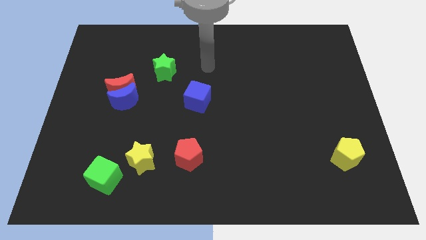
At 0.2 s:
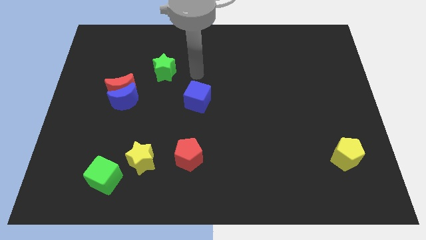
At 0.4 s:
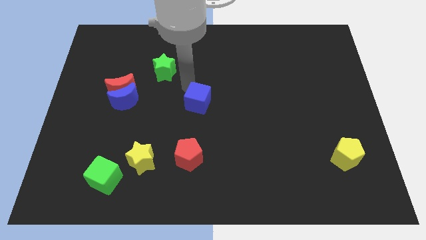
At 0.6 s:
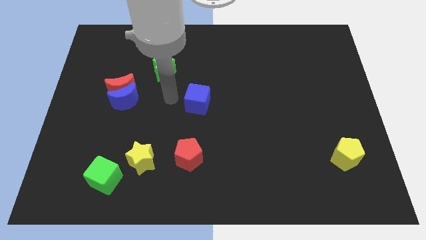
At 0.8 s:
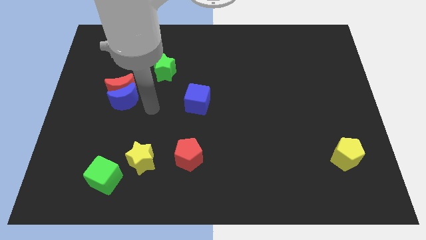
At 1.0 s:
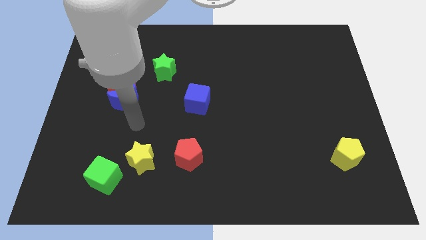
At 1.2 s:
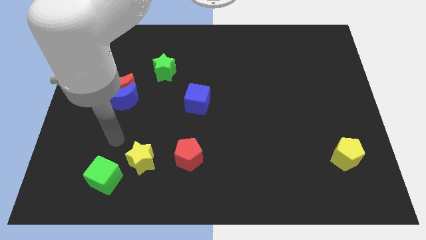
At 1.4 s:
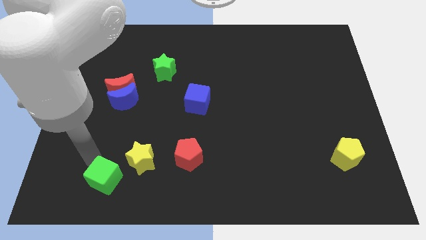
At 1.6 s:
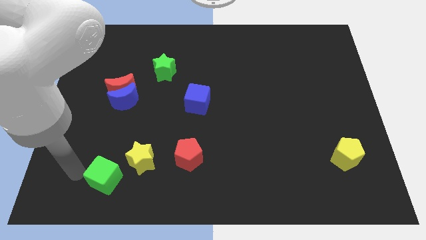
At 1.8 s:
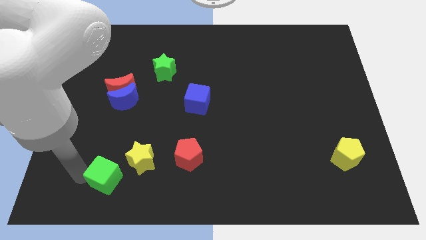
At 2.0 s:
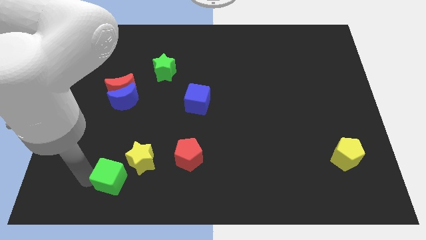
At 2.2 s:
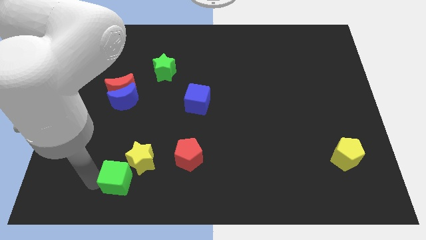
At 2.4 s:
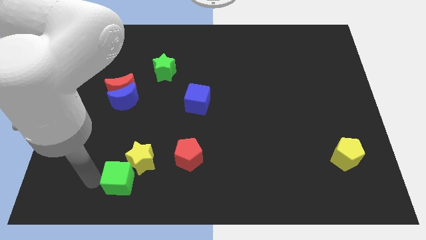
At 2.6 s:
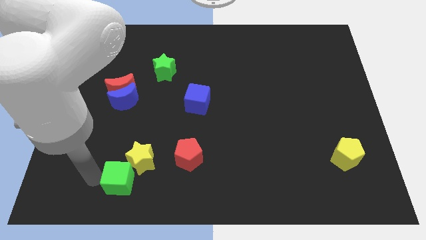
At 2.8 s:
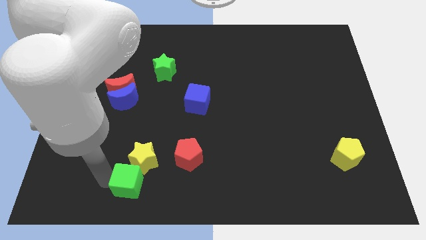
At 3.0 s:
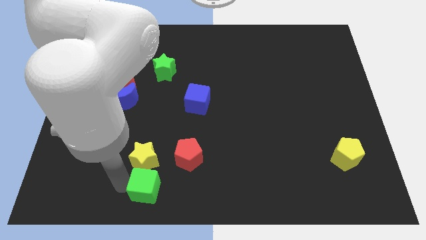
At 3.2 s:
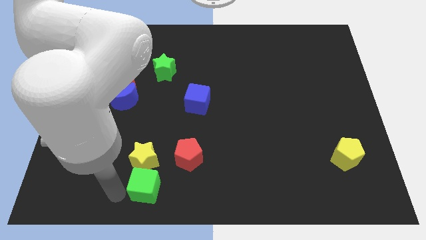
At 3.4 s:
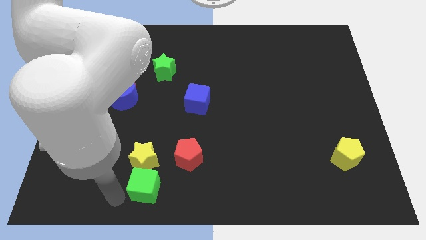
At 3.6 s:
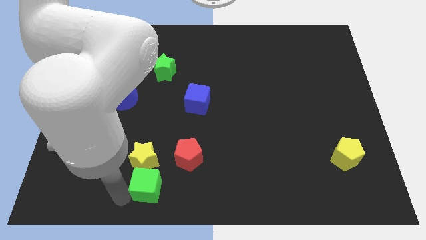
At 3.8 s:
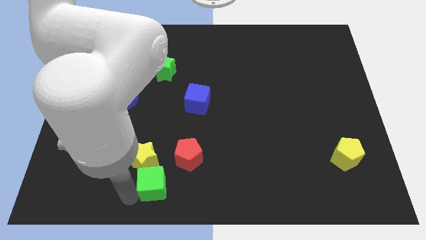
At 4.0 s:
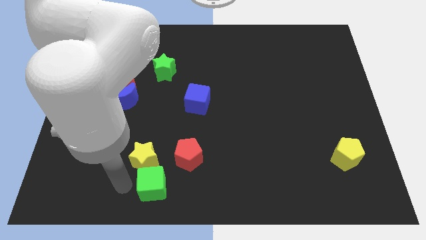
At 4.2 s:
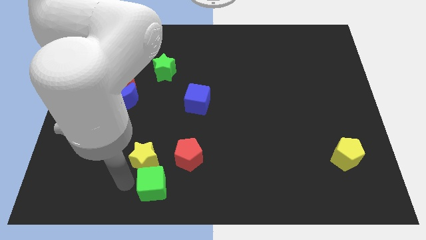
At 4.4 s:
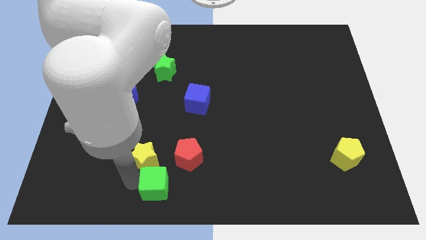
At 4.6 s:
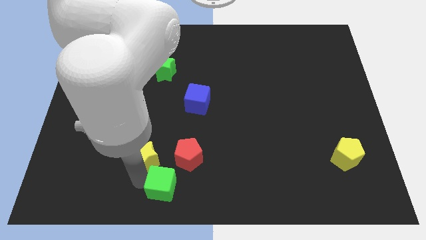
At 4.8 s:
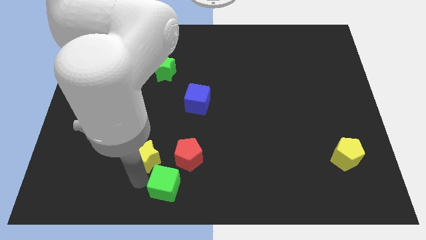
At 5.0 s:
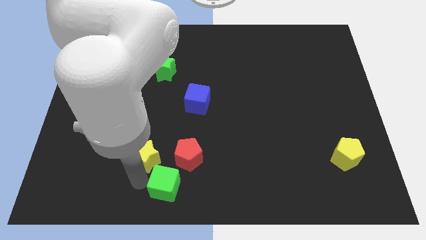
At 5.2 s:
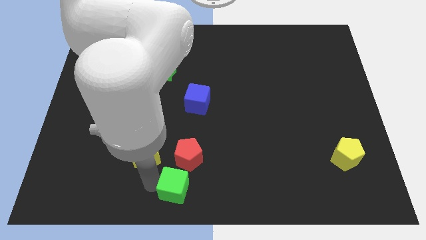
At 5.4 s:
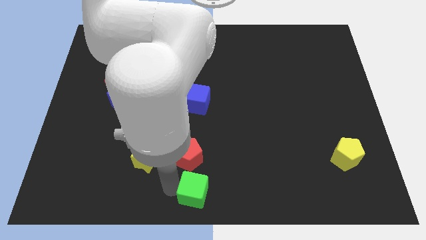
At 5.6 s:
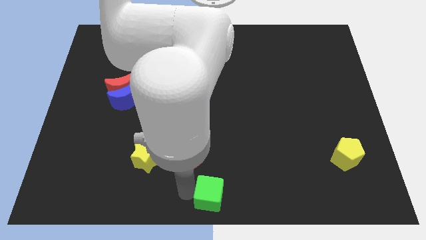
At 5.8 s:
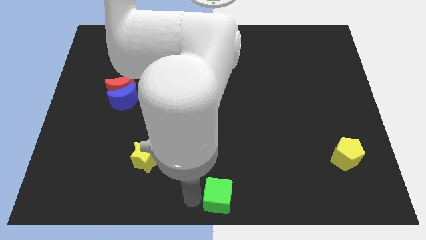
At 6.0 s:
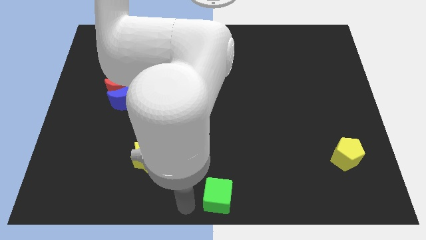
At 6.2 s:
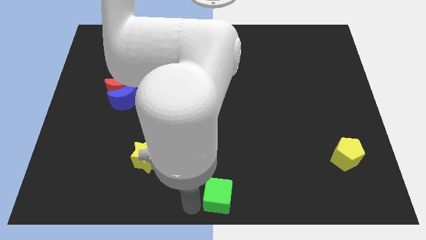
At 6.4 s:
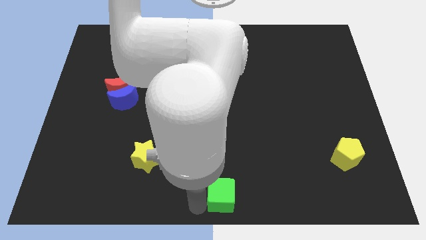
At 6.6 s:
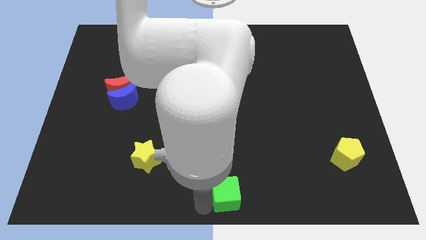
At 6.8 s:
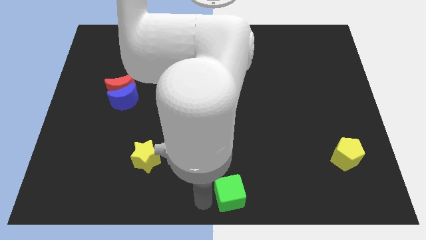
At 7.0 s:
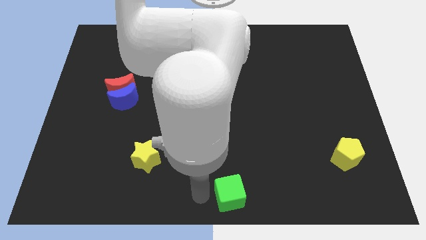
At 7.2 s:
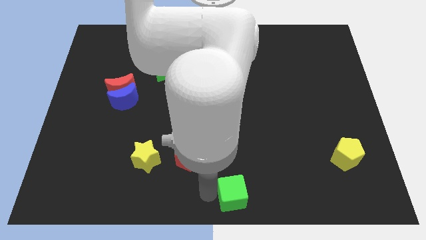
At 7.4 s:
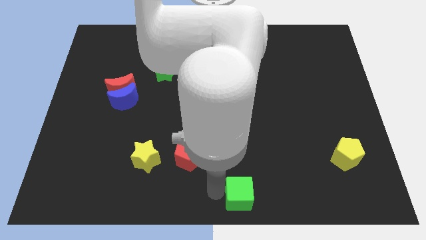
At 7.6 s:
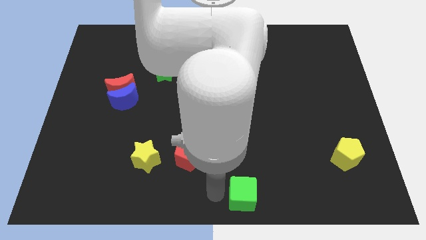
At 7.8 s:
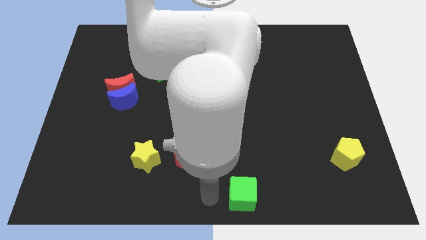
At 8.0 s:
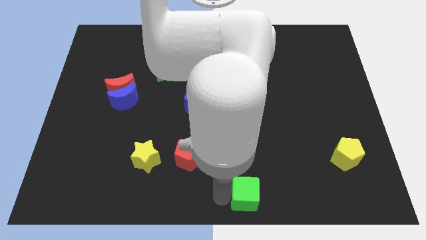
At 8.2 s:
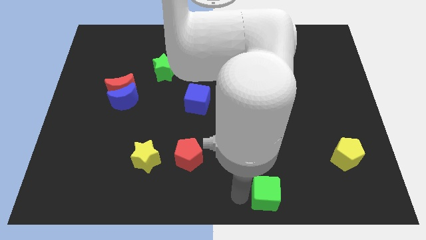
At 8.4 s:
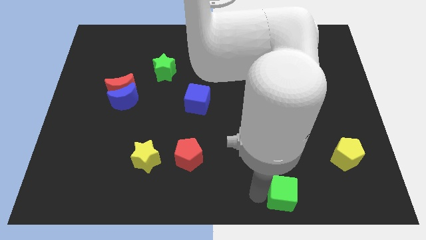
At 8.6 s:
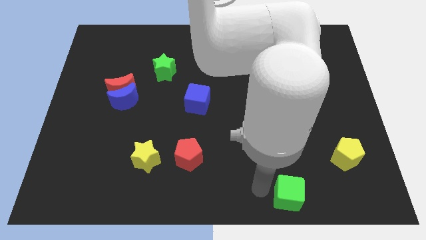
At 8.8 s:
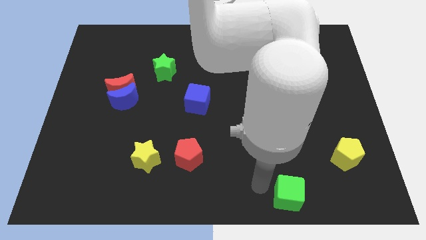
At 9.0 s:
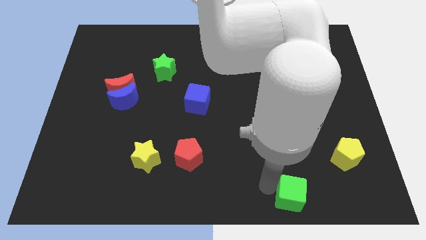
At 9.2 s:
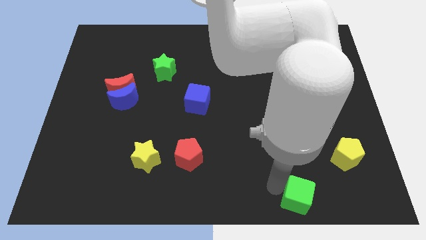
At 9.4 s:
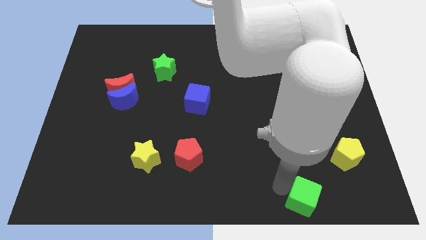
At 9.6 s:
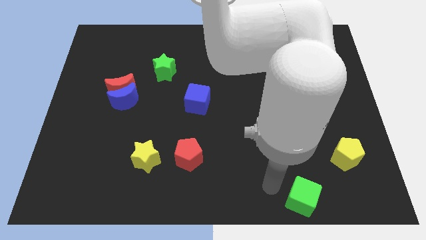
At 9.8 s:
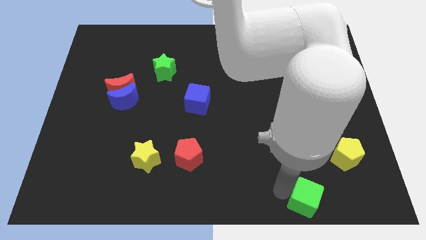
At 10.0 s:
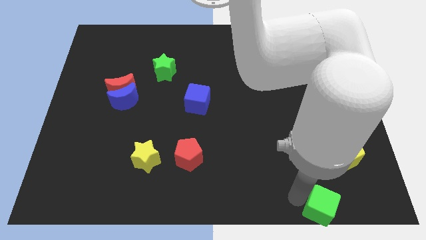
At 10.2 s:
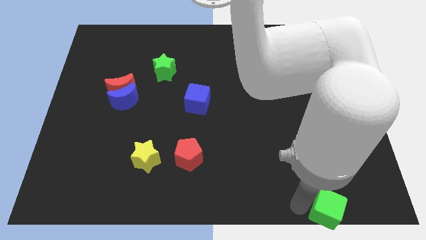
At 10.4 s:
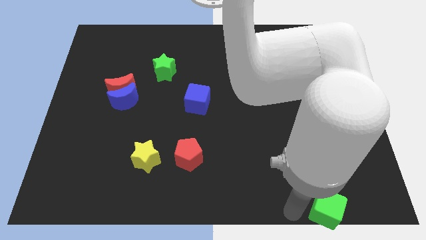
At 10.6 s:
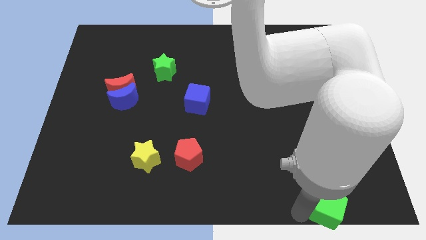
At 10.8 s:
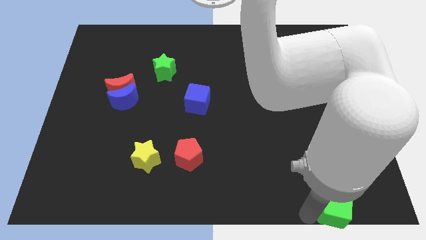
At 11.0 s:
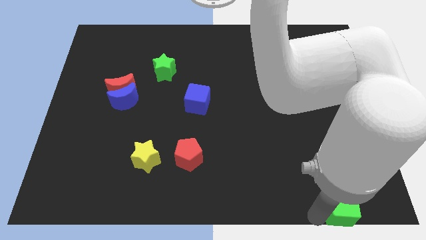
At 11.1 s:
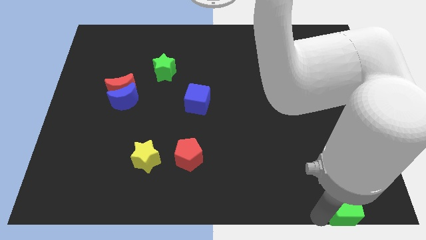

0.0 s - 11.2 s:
put the green cube to the bottom right of the board

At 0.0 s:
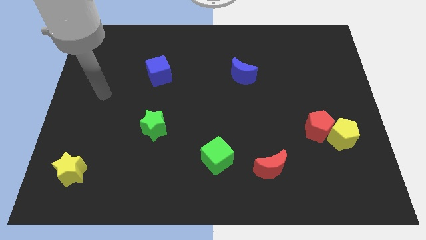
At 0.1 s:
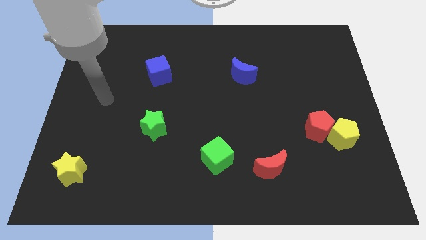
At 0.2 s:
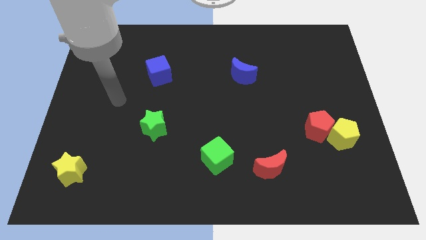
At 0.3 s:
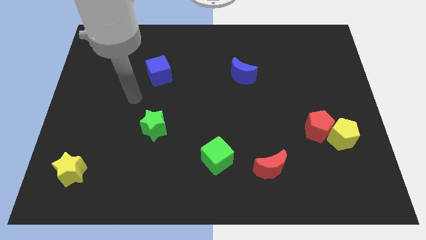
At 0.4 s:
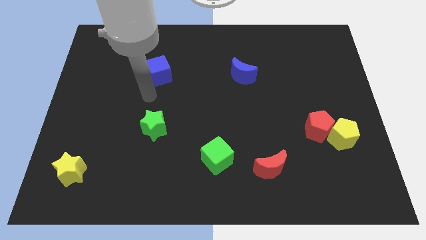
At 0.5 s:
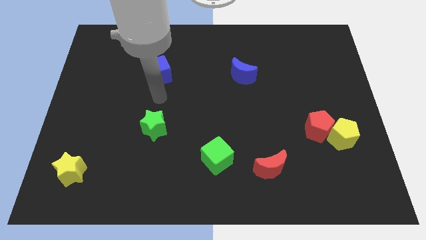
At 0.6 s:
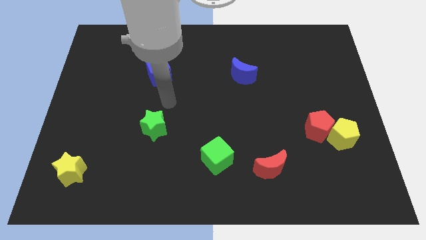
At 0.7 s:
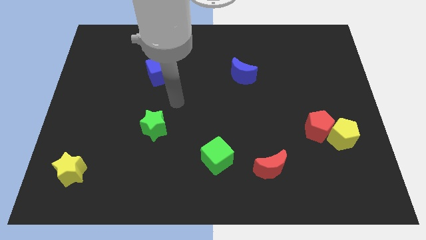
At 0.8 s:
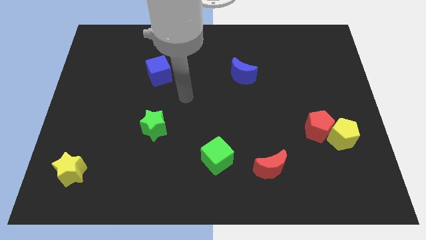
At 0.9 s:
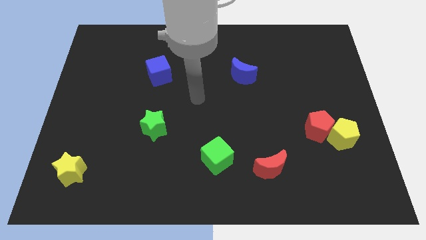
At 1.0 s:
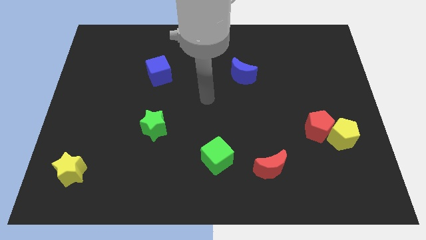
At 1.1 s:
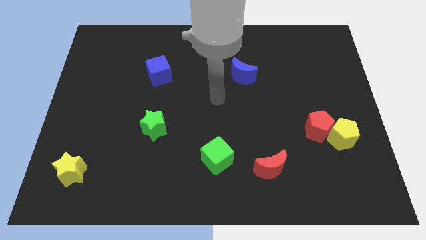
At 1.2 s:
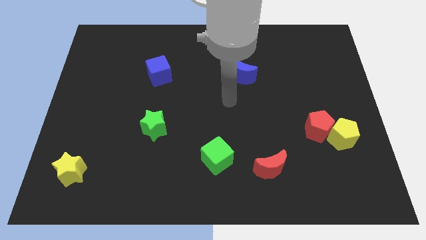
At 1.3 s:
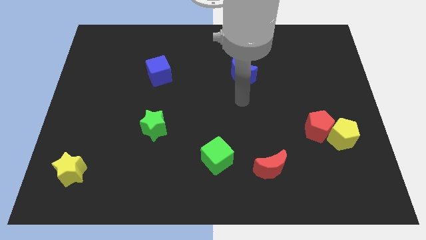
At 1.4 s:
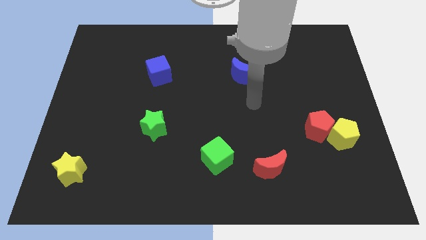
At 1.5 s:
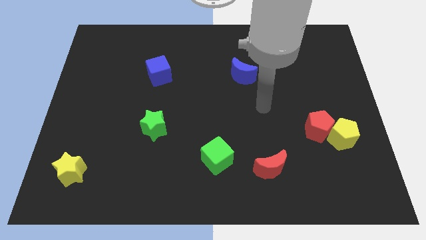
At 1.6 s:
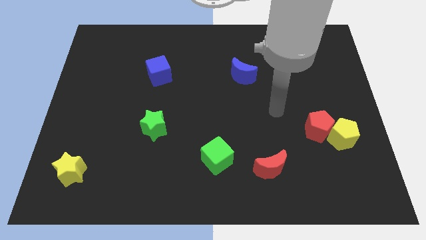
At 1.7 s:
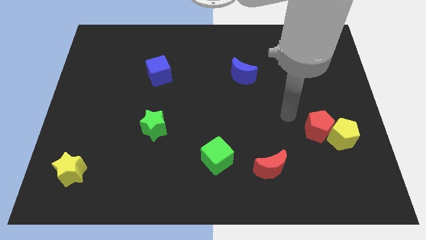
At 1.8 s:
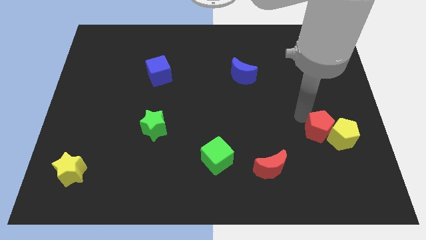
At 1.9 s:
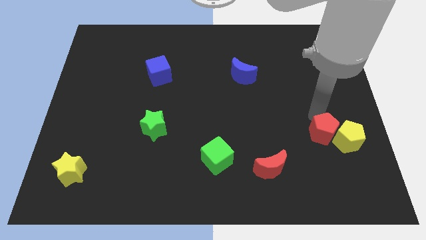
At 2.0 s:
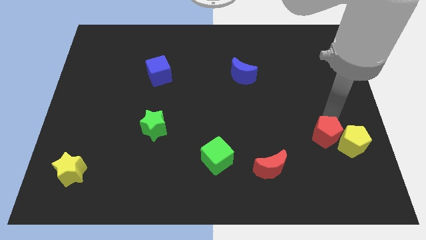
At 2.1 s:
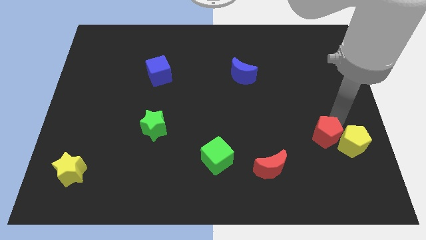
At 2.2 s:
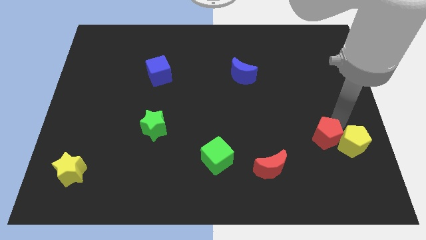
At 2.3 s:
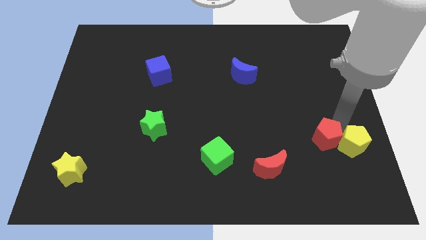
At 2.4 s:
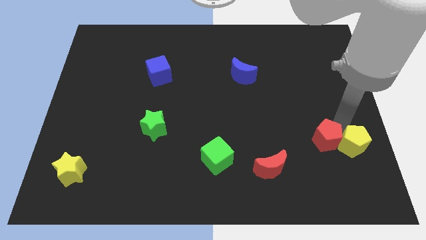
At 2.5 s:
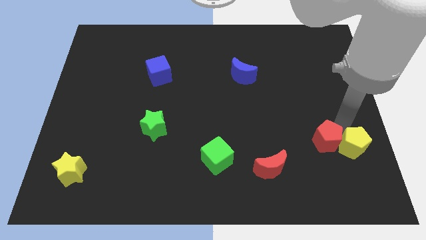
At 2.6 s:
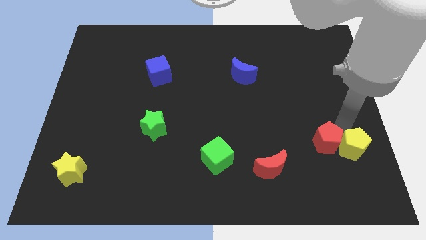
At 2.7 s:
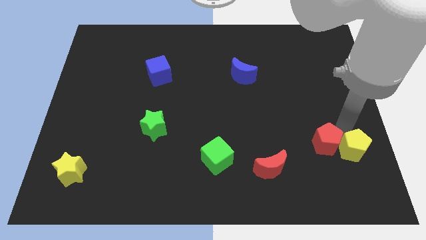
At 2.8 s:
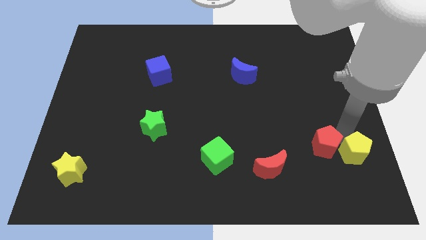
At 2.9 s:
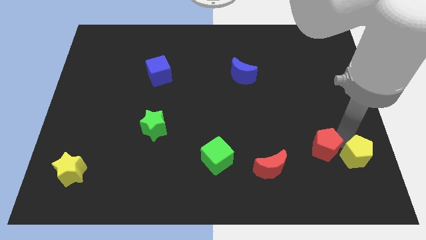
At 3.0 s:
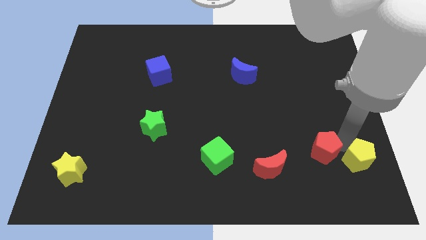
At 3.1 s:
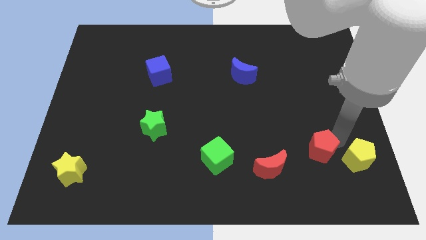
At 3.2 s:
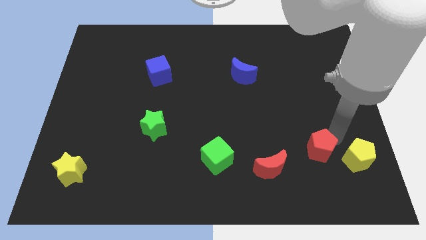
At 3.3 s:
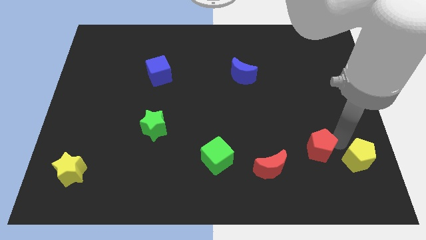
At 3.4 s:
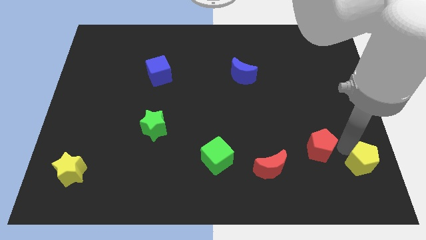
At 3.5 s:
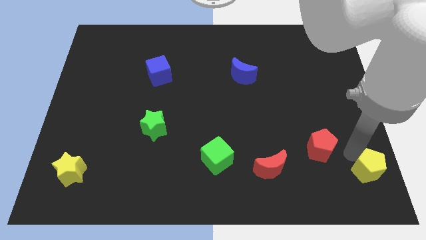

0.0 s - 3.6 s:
push the yellow pentagon to the lower right corner
